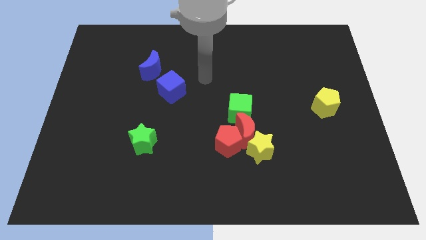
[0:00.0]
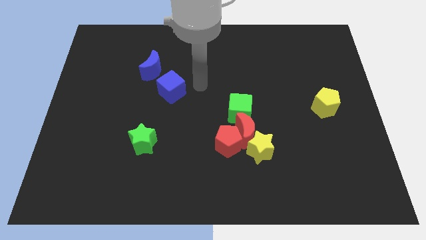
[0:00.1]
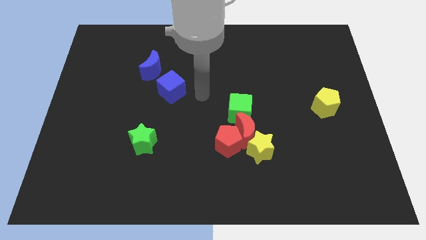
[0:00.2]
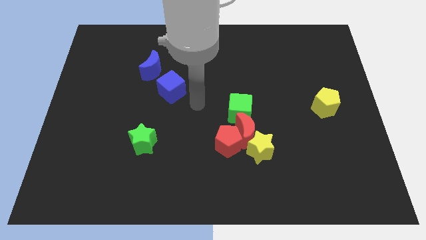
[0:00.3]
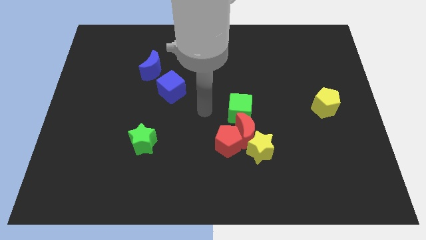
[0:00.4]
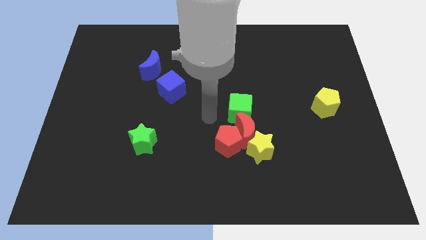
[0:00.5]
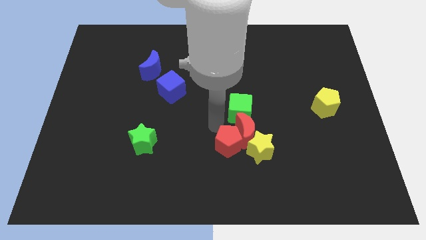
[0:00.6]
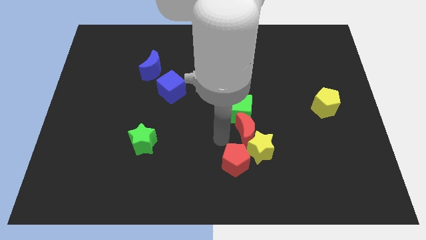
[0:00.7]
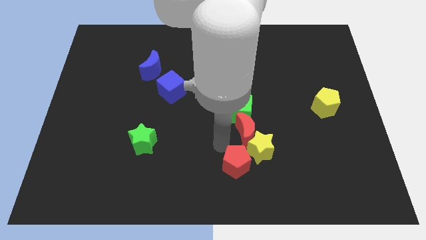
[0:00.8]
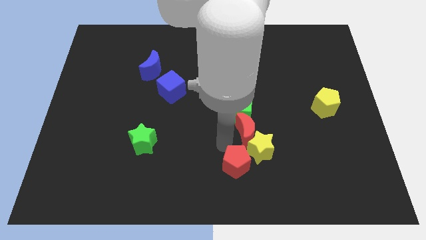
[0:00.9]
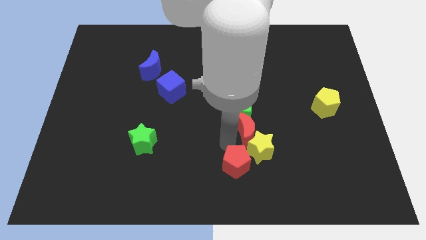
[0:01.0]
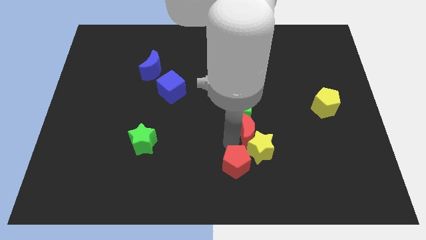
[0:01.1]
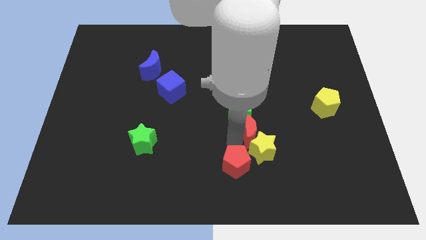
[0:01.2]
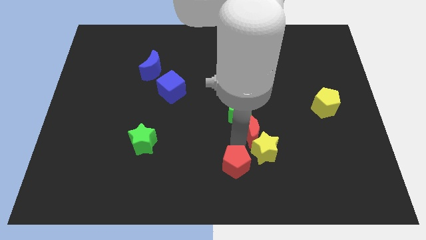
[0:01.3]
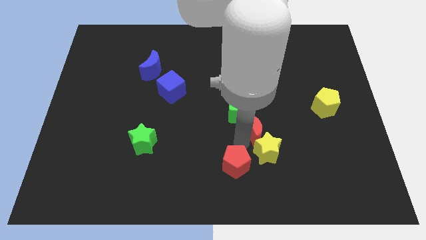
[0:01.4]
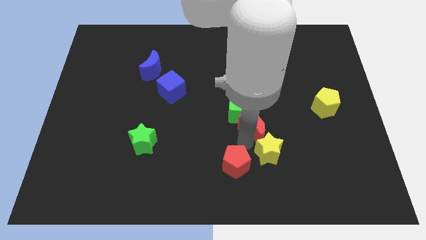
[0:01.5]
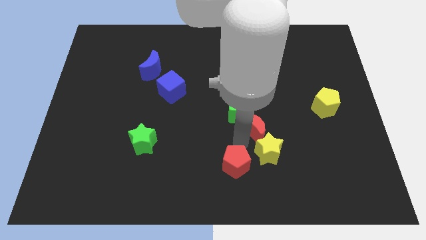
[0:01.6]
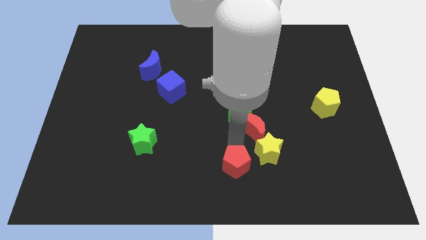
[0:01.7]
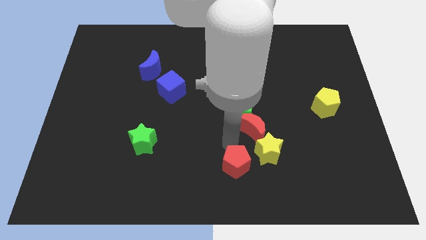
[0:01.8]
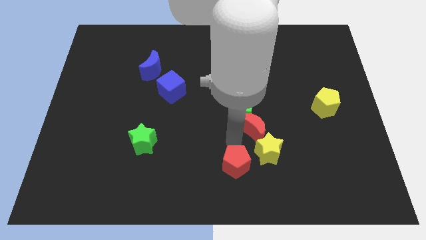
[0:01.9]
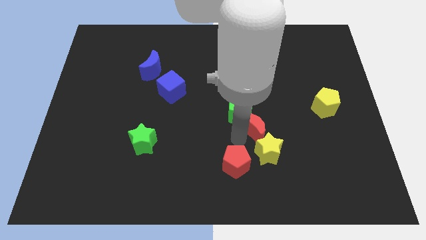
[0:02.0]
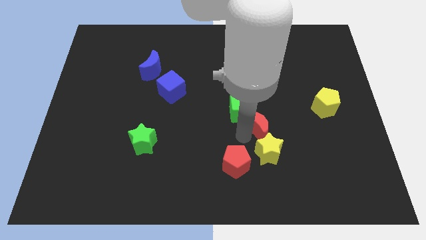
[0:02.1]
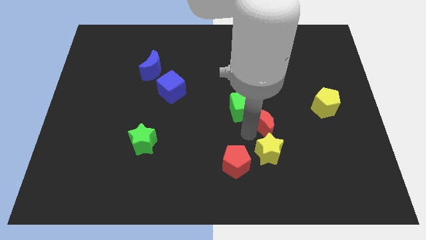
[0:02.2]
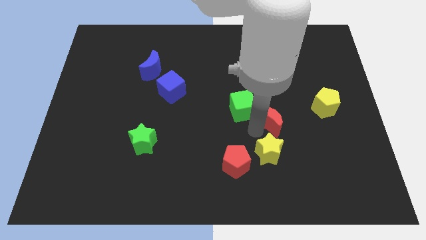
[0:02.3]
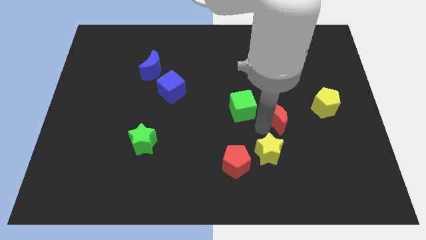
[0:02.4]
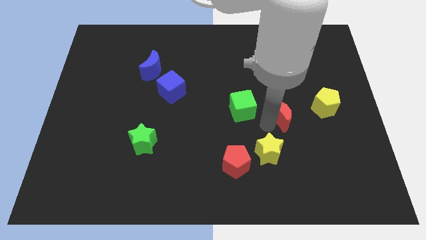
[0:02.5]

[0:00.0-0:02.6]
separate the red moon from the red pentagon, yellow star, and green cube

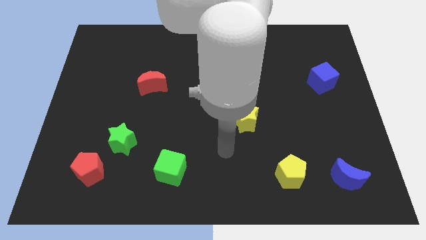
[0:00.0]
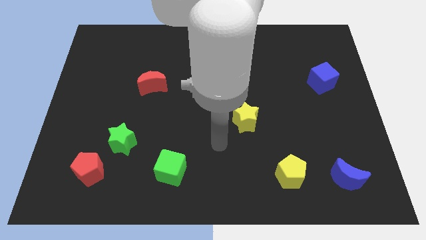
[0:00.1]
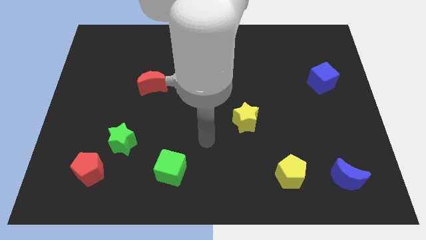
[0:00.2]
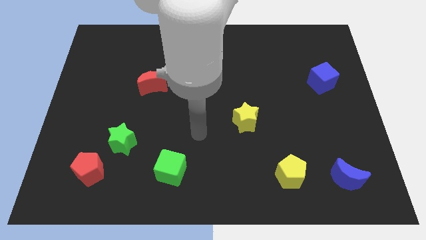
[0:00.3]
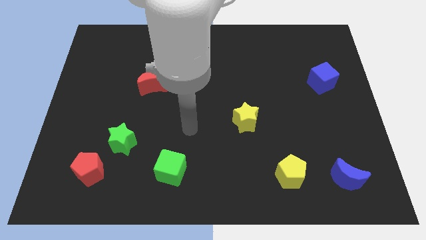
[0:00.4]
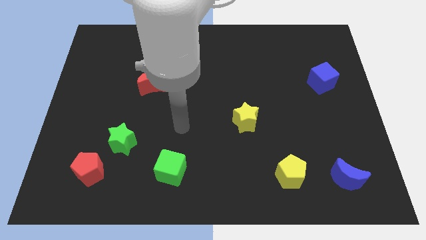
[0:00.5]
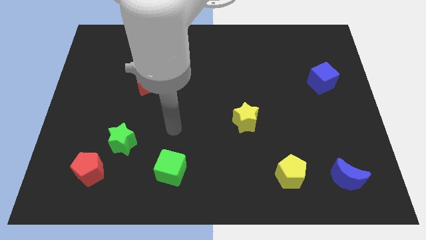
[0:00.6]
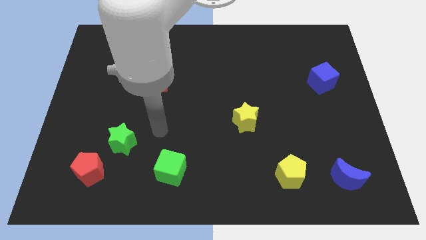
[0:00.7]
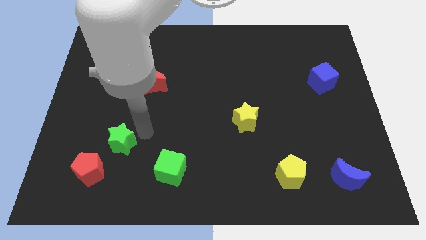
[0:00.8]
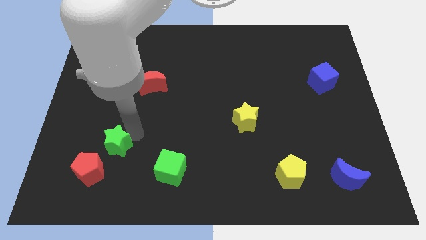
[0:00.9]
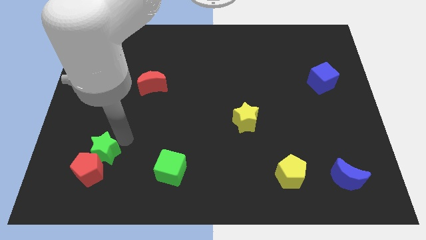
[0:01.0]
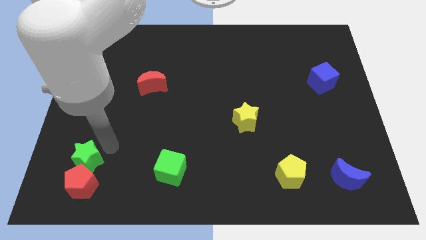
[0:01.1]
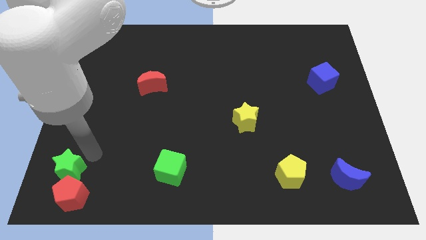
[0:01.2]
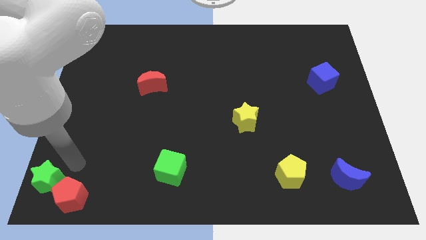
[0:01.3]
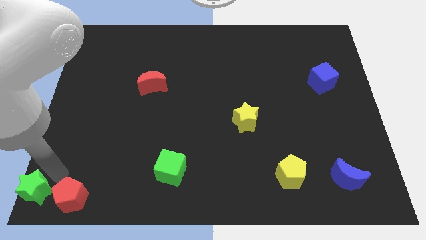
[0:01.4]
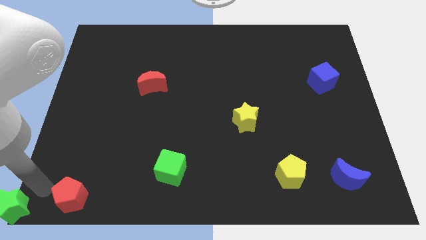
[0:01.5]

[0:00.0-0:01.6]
pull the red pentagon apart from the green star

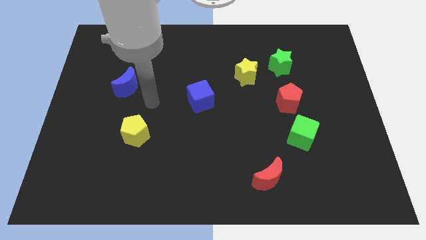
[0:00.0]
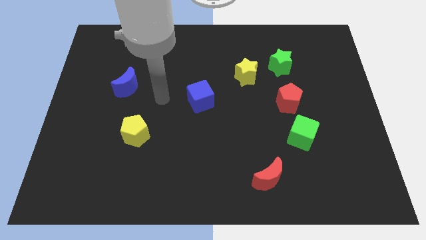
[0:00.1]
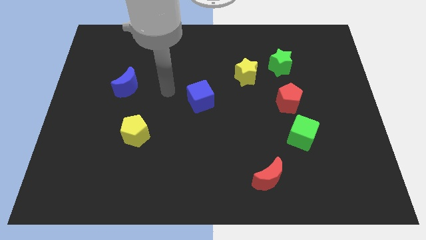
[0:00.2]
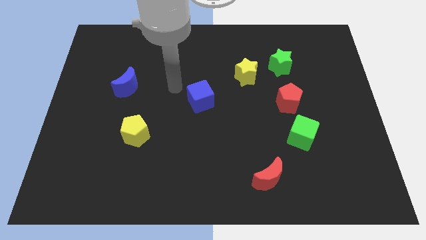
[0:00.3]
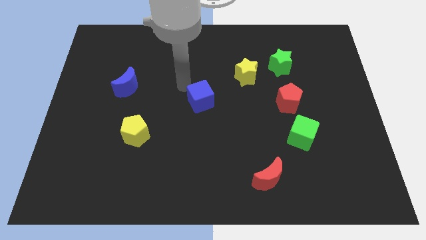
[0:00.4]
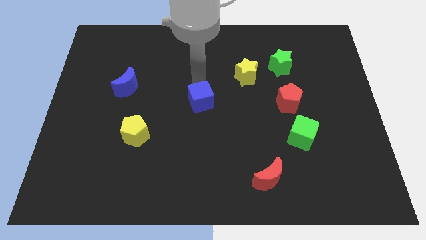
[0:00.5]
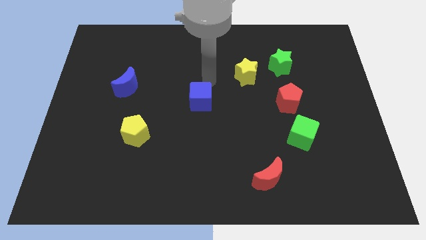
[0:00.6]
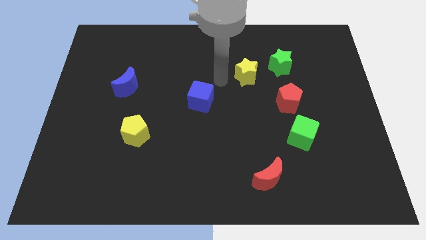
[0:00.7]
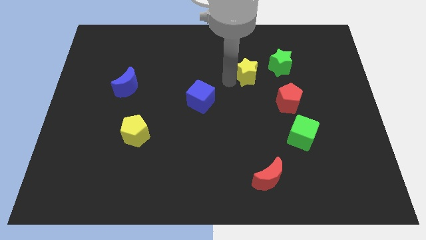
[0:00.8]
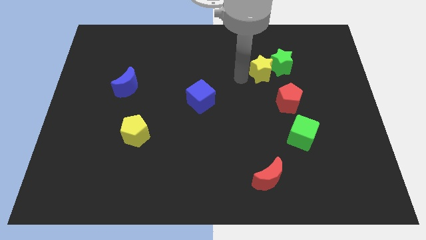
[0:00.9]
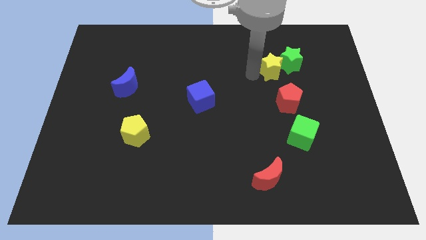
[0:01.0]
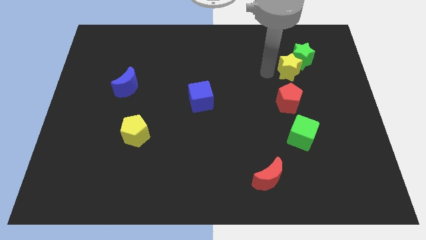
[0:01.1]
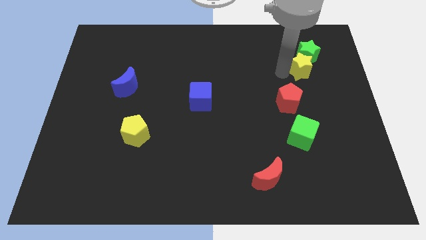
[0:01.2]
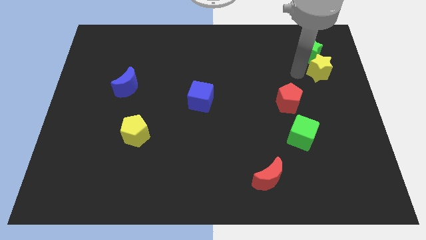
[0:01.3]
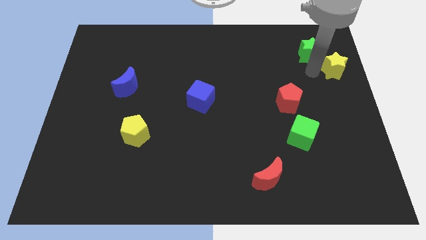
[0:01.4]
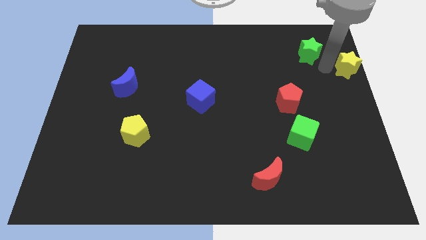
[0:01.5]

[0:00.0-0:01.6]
separate the green star from the yellow star

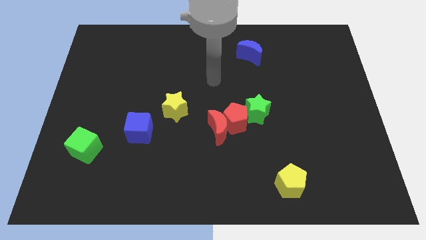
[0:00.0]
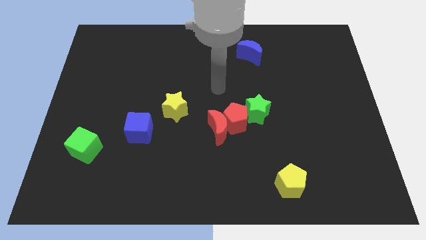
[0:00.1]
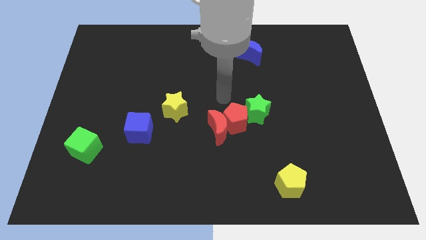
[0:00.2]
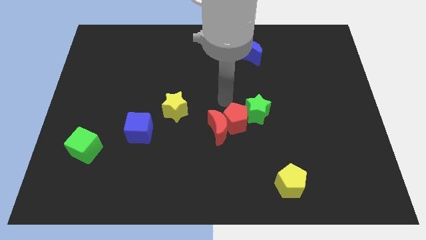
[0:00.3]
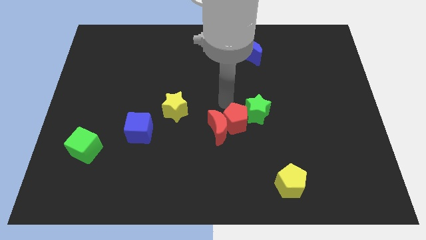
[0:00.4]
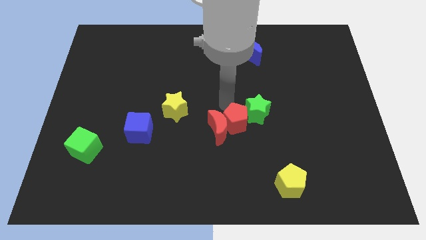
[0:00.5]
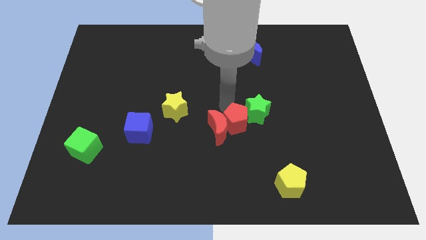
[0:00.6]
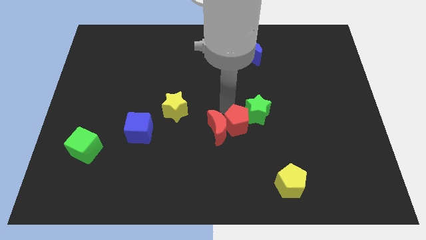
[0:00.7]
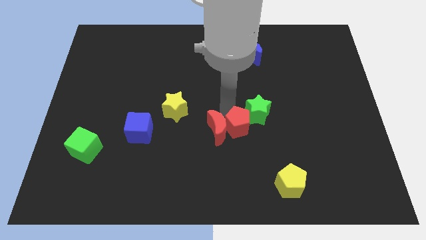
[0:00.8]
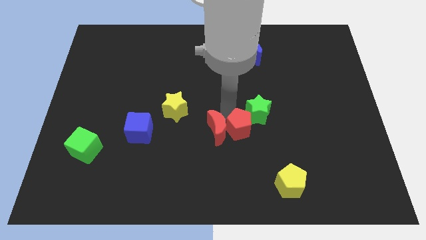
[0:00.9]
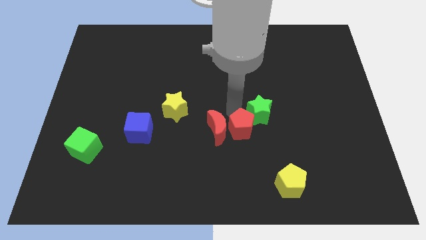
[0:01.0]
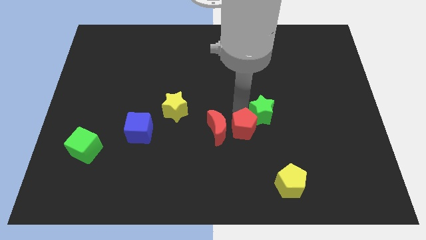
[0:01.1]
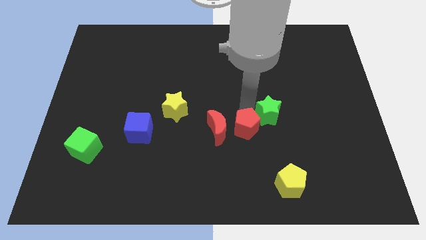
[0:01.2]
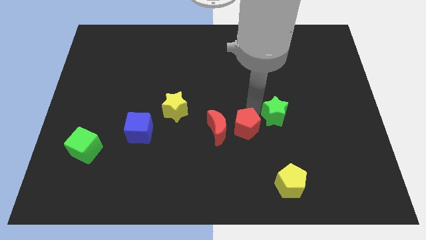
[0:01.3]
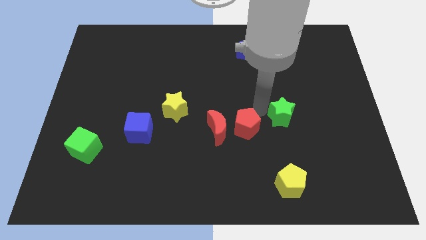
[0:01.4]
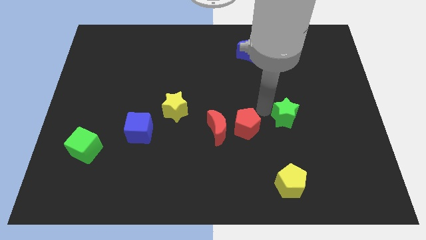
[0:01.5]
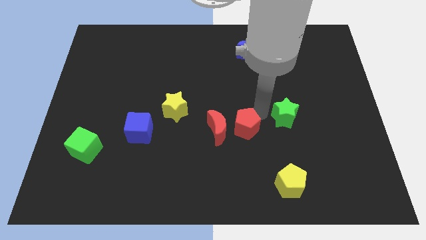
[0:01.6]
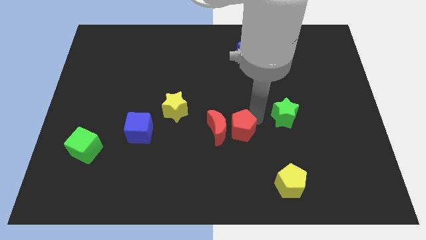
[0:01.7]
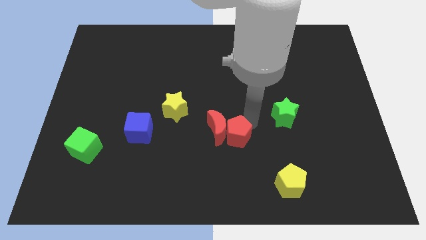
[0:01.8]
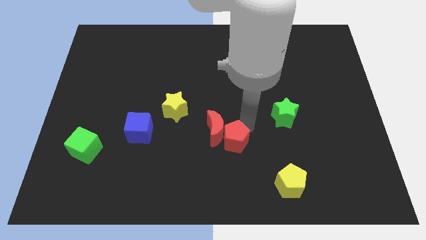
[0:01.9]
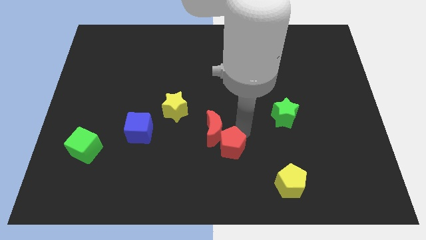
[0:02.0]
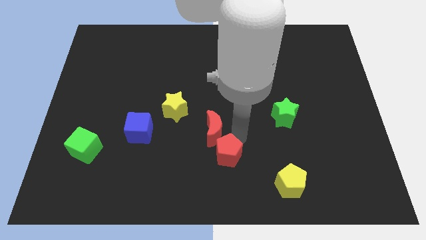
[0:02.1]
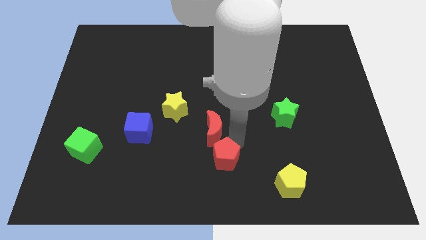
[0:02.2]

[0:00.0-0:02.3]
move the red pentagon away from the red moon and green star

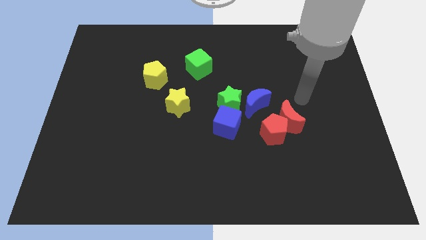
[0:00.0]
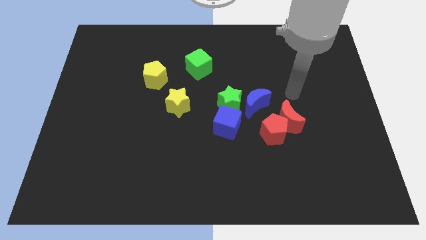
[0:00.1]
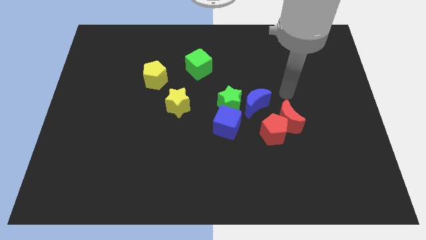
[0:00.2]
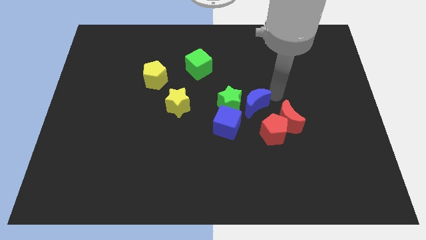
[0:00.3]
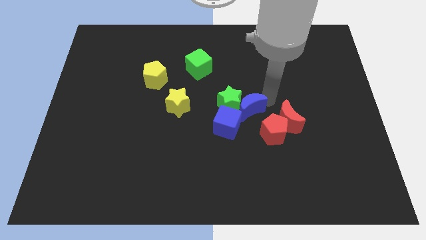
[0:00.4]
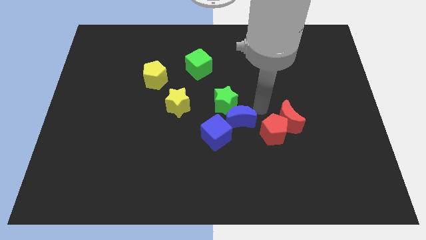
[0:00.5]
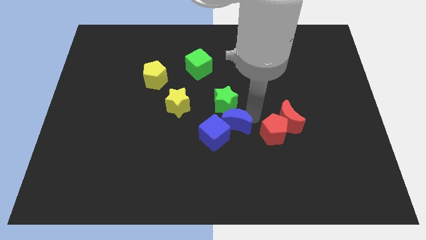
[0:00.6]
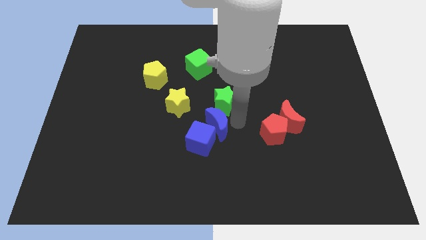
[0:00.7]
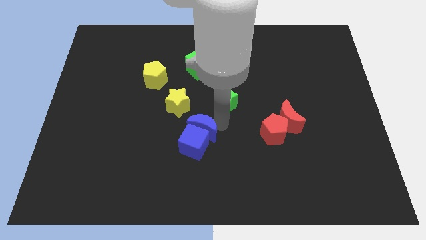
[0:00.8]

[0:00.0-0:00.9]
separate the green star from the blue cube and blue moon

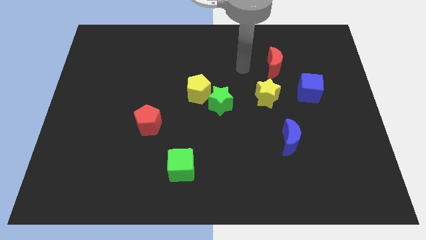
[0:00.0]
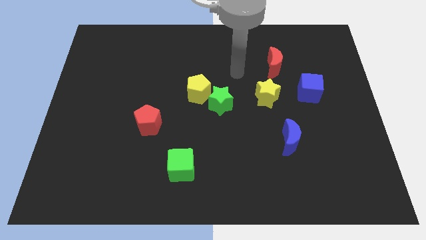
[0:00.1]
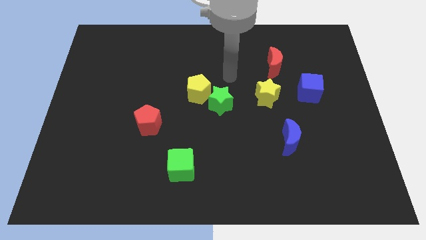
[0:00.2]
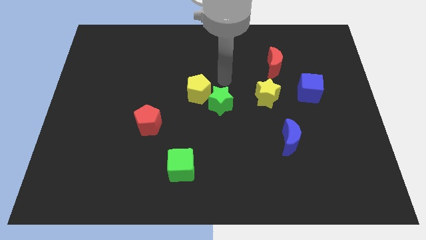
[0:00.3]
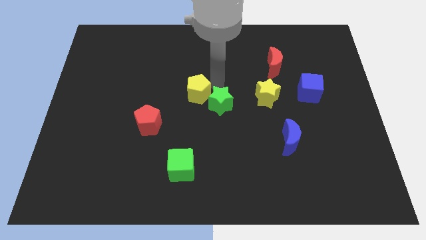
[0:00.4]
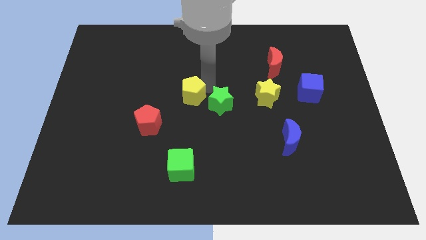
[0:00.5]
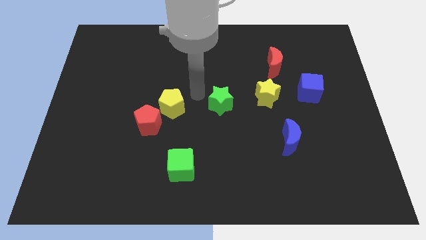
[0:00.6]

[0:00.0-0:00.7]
move the green star away from the yellow pentagon
